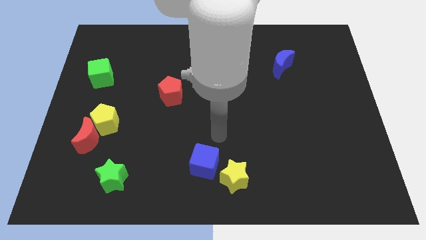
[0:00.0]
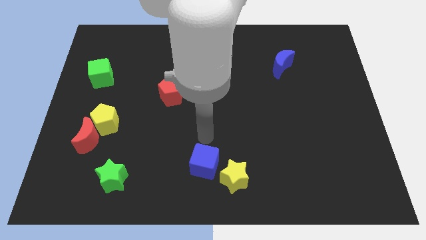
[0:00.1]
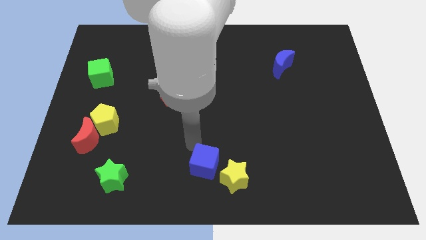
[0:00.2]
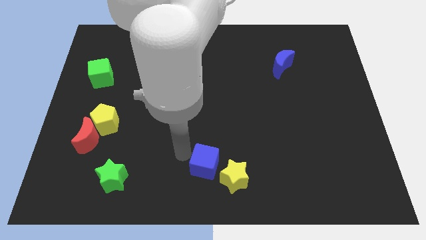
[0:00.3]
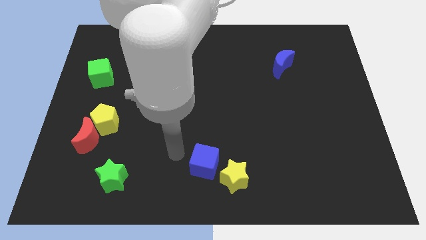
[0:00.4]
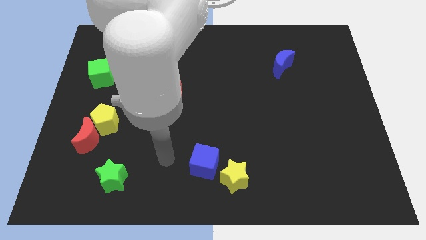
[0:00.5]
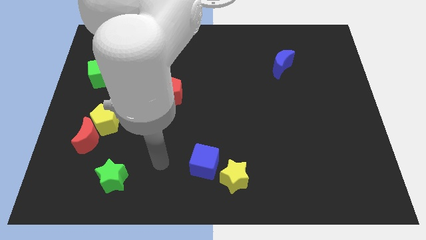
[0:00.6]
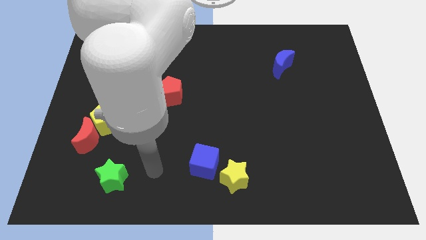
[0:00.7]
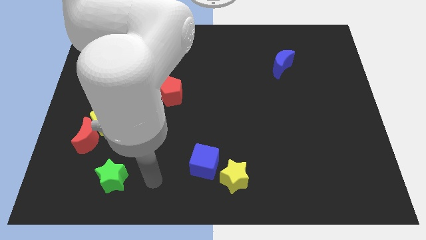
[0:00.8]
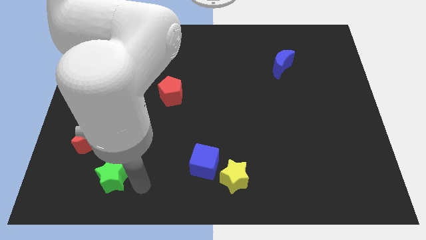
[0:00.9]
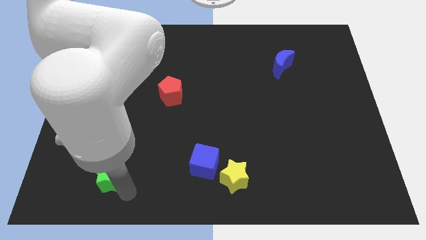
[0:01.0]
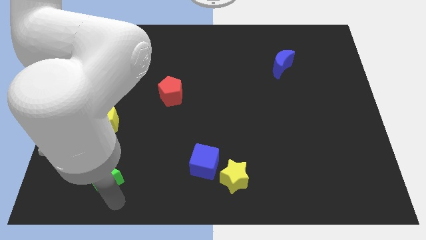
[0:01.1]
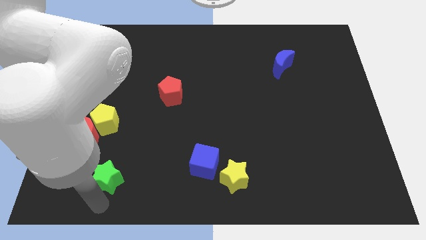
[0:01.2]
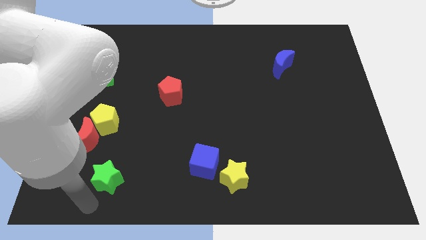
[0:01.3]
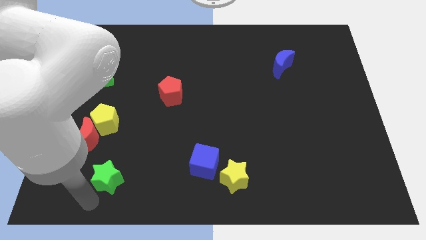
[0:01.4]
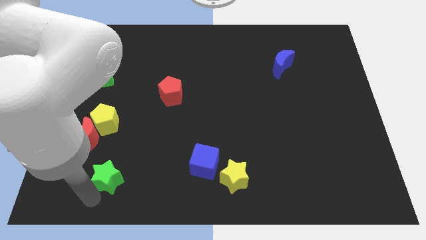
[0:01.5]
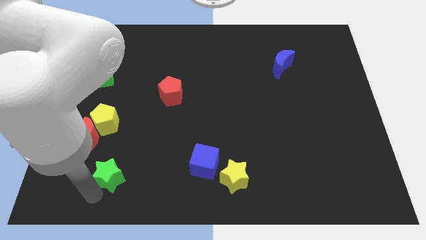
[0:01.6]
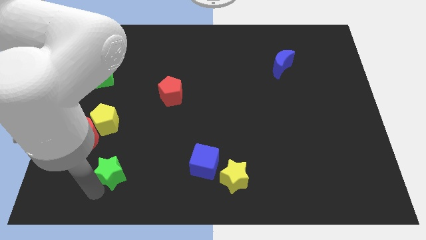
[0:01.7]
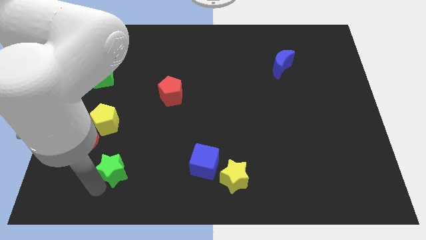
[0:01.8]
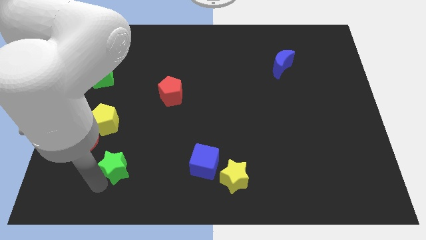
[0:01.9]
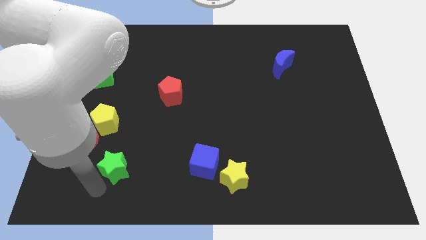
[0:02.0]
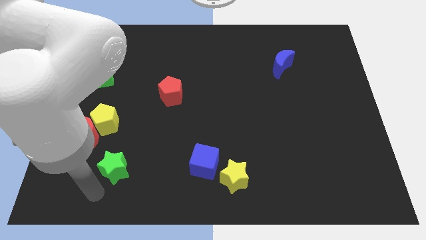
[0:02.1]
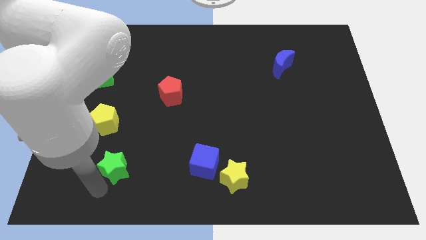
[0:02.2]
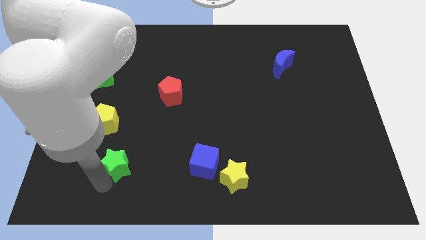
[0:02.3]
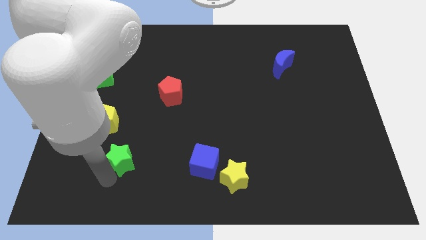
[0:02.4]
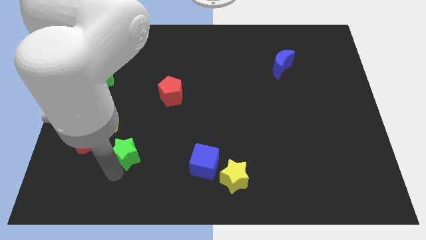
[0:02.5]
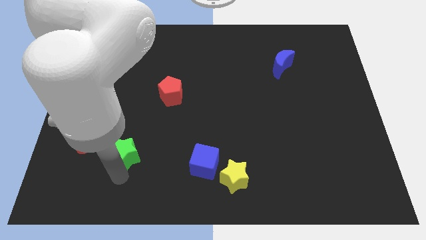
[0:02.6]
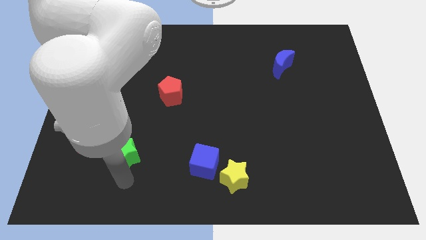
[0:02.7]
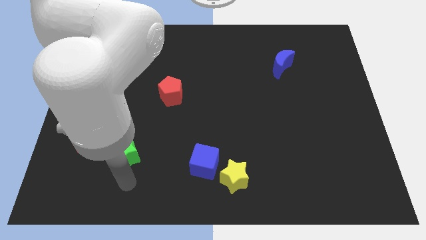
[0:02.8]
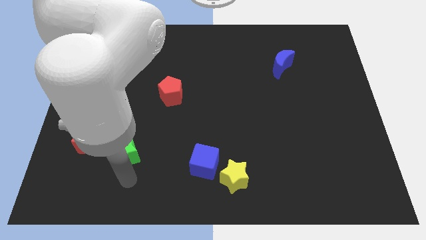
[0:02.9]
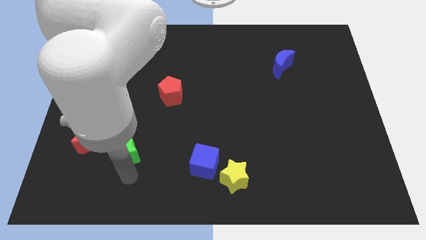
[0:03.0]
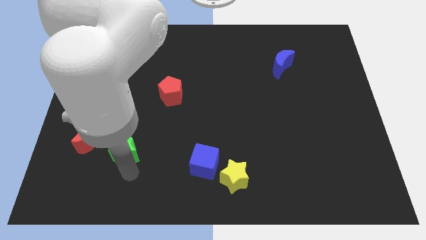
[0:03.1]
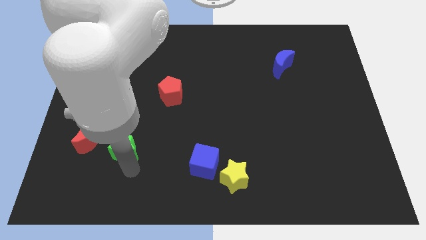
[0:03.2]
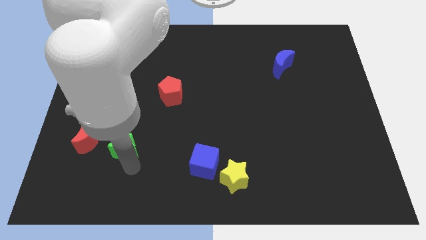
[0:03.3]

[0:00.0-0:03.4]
slightly push the green star upwards

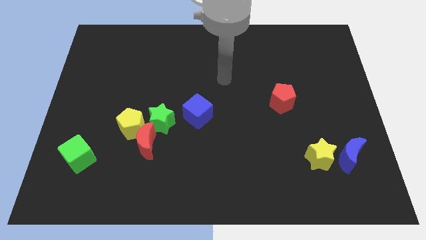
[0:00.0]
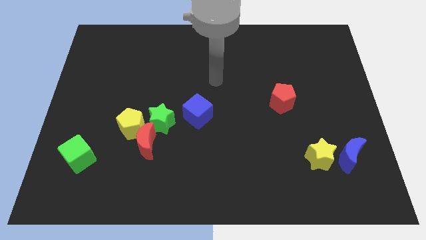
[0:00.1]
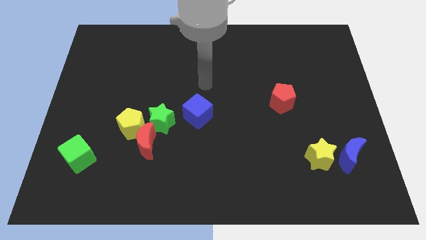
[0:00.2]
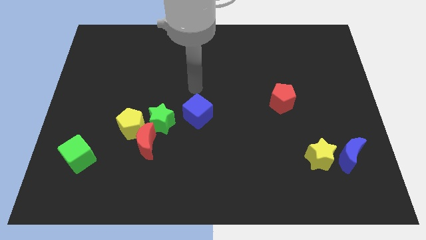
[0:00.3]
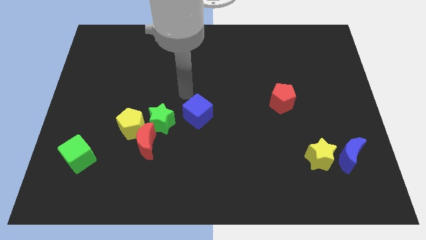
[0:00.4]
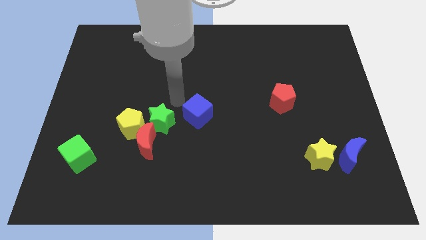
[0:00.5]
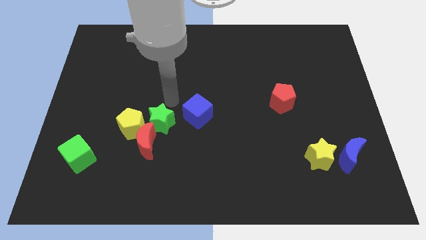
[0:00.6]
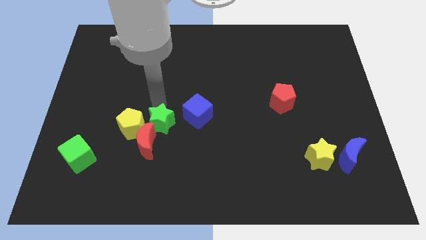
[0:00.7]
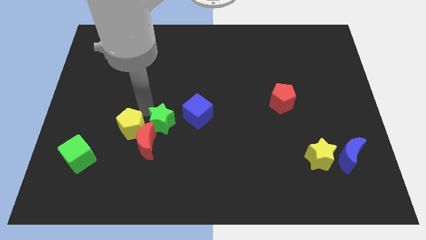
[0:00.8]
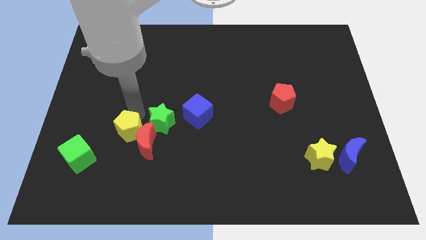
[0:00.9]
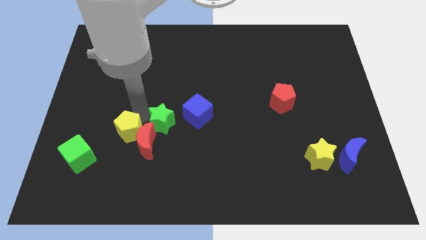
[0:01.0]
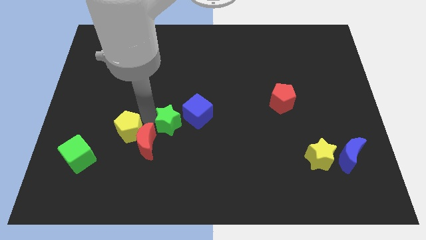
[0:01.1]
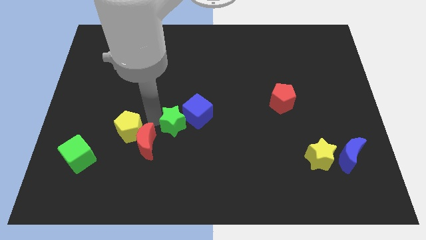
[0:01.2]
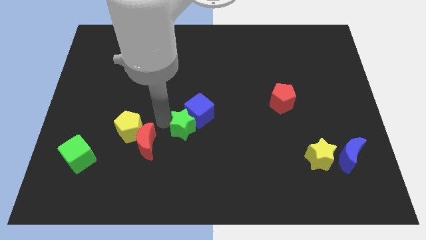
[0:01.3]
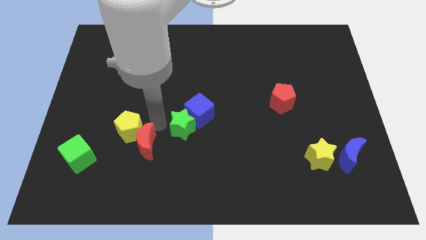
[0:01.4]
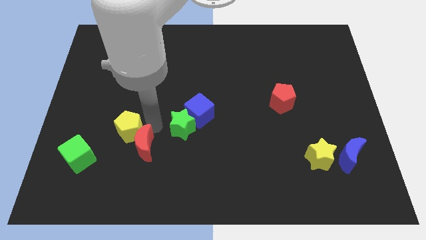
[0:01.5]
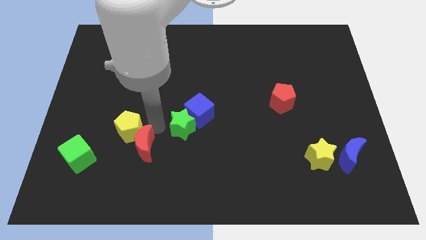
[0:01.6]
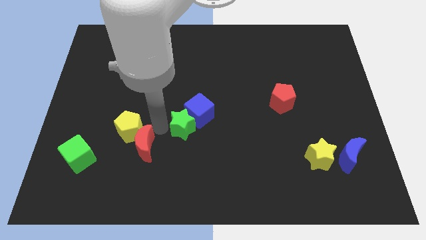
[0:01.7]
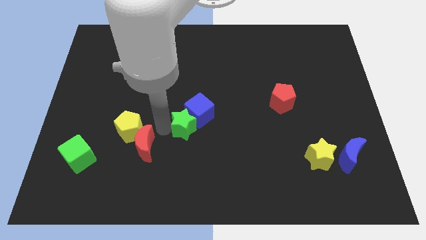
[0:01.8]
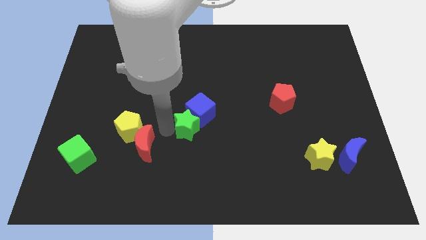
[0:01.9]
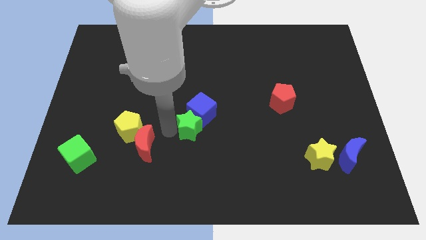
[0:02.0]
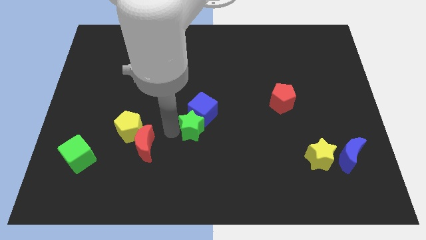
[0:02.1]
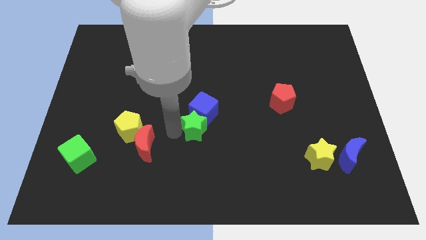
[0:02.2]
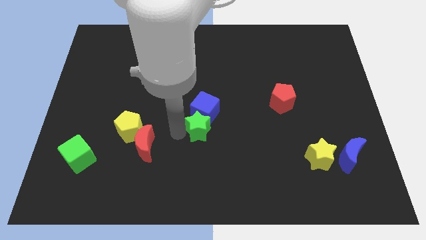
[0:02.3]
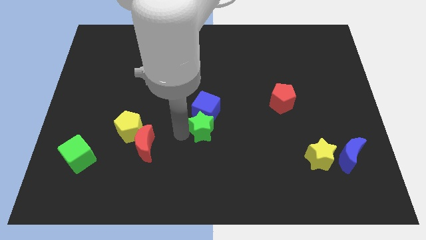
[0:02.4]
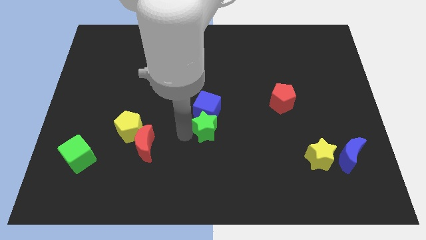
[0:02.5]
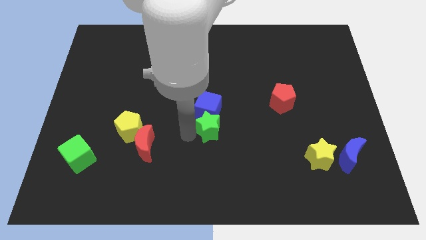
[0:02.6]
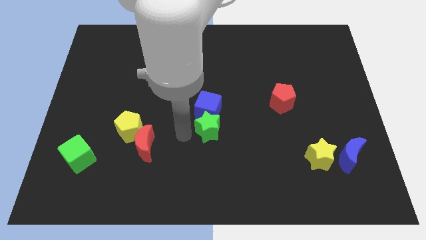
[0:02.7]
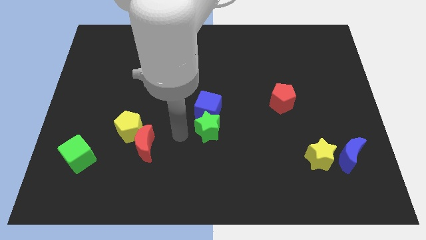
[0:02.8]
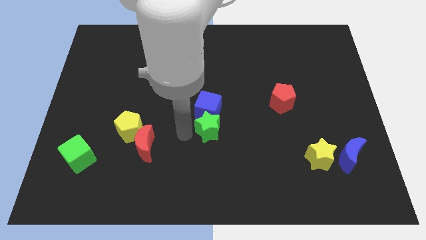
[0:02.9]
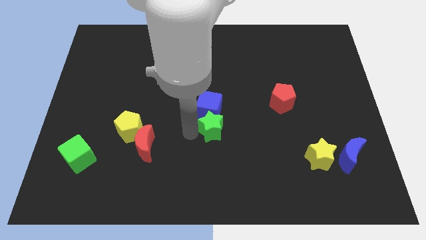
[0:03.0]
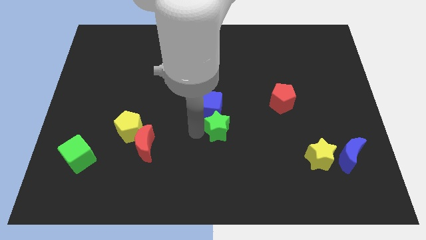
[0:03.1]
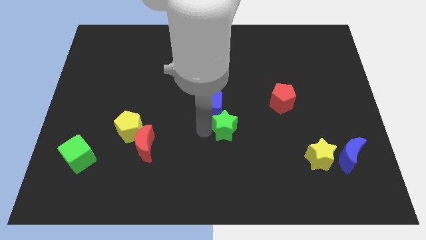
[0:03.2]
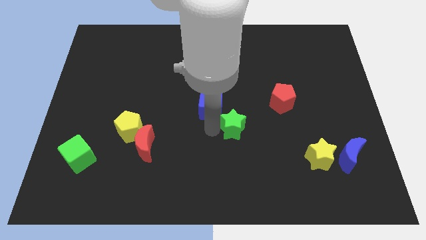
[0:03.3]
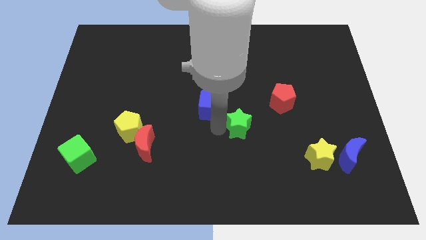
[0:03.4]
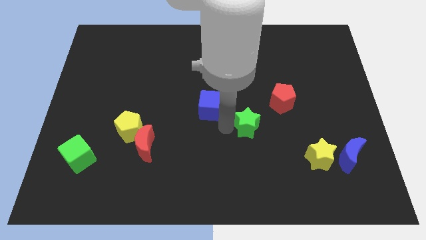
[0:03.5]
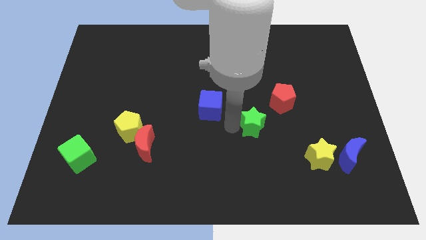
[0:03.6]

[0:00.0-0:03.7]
move the green star right

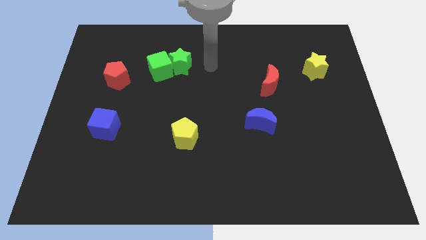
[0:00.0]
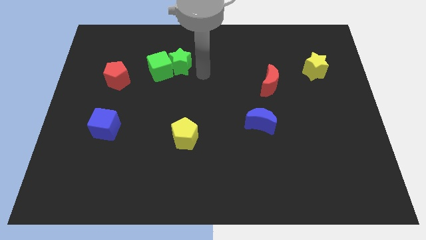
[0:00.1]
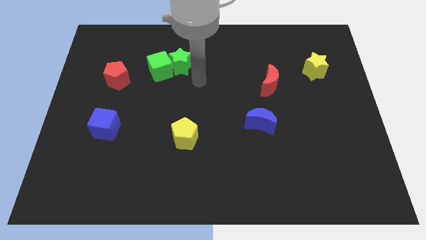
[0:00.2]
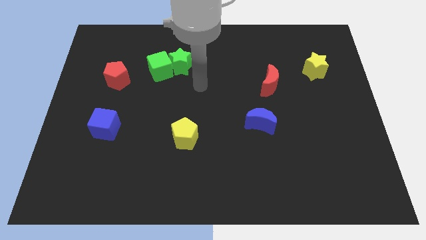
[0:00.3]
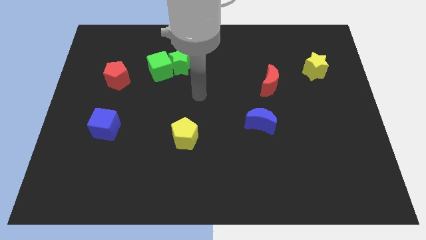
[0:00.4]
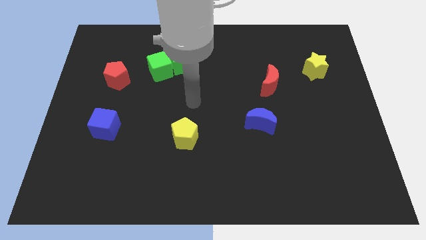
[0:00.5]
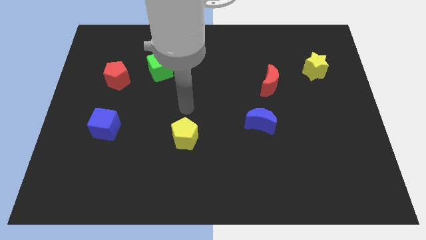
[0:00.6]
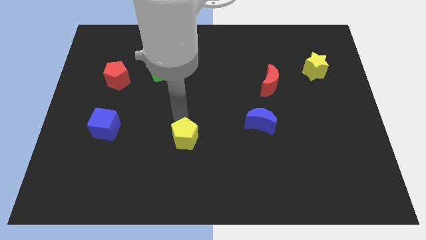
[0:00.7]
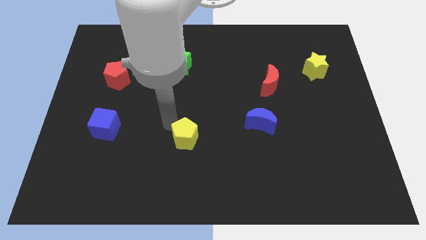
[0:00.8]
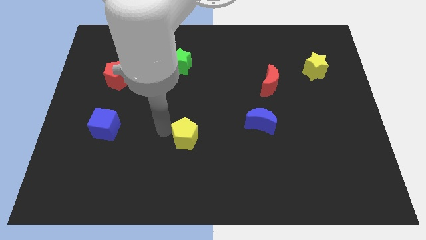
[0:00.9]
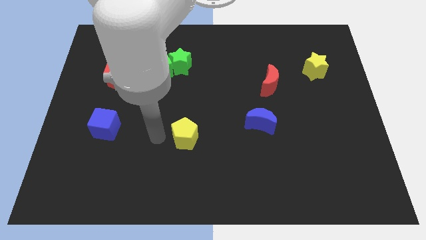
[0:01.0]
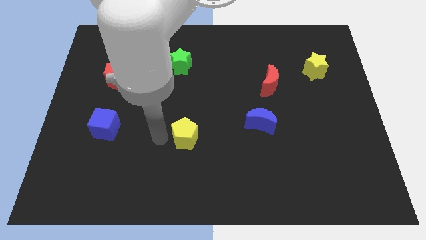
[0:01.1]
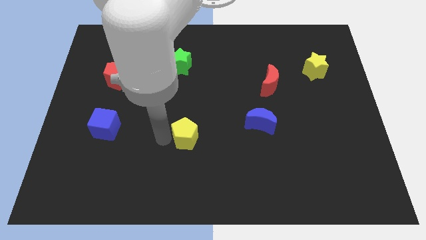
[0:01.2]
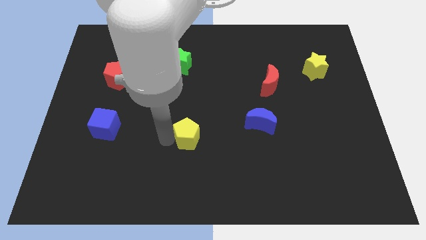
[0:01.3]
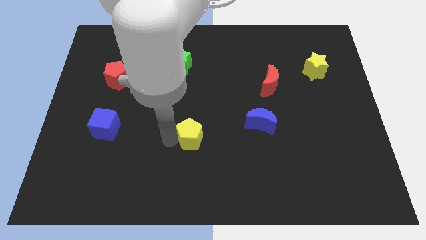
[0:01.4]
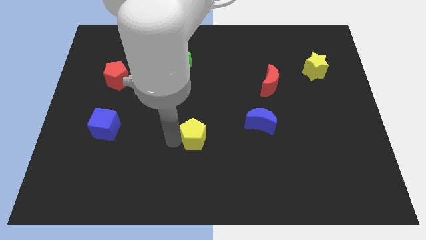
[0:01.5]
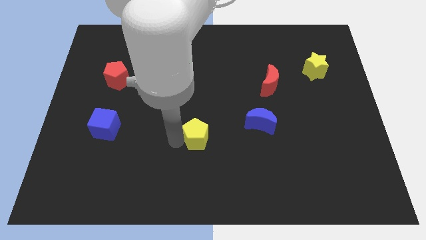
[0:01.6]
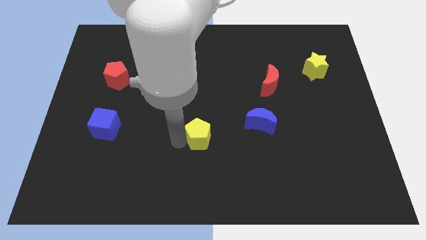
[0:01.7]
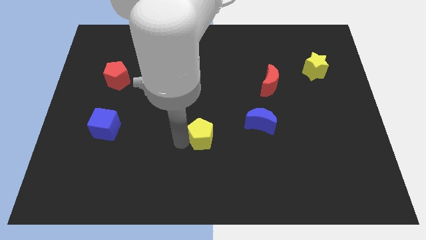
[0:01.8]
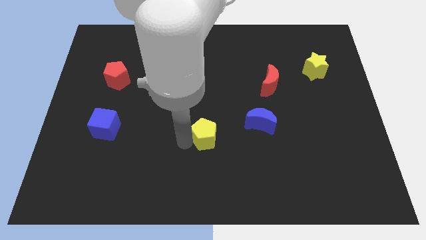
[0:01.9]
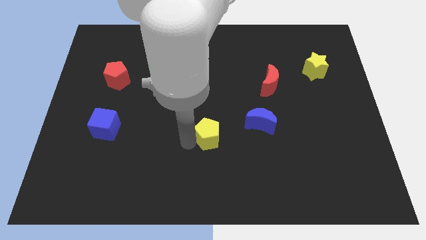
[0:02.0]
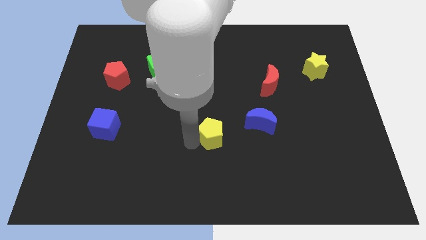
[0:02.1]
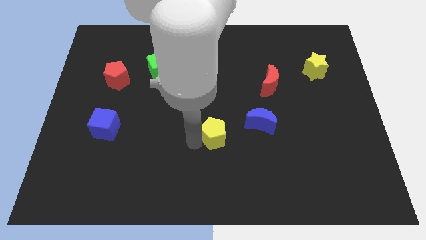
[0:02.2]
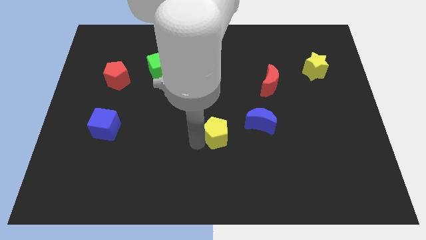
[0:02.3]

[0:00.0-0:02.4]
slightly push the yellow pentagon to the right
